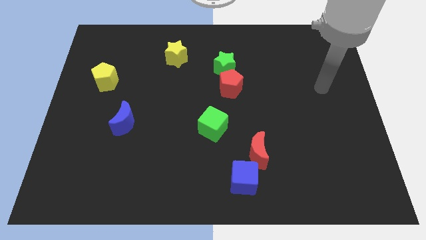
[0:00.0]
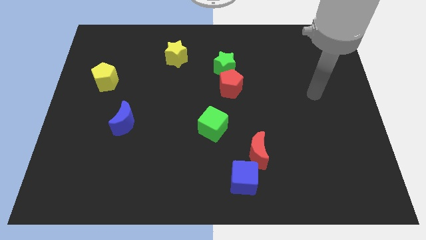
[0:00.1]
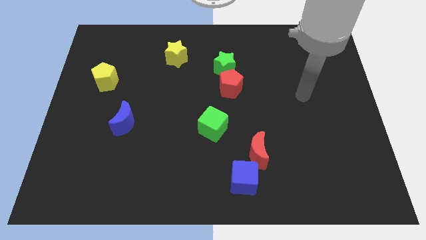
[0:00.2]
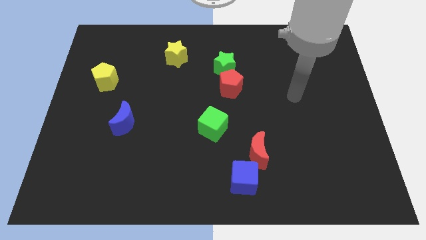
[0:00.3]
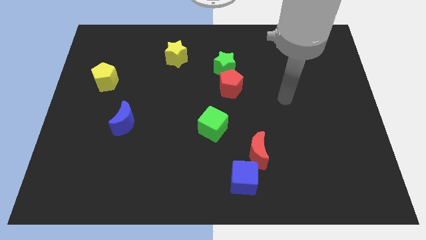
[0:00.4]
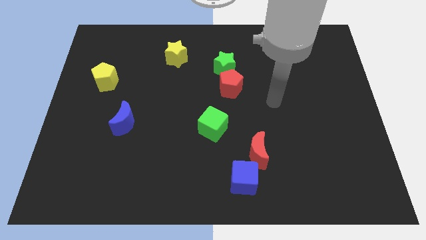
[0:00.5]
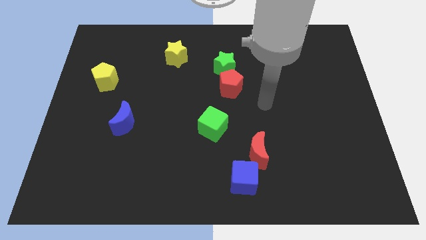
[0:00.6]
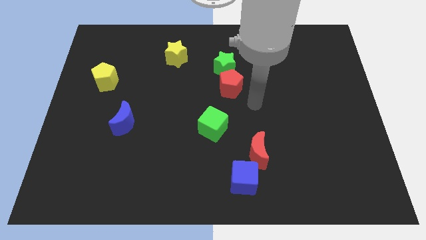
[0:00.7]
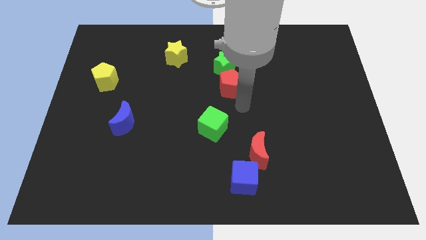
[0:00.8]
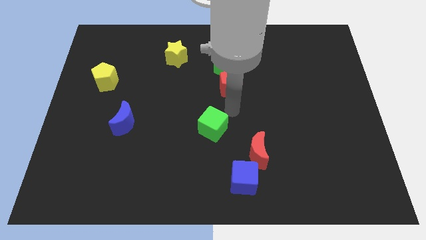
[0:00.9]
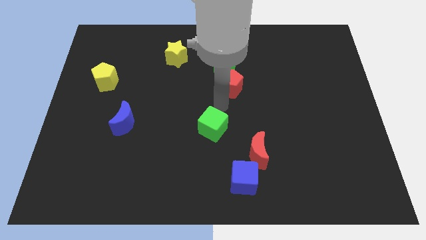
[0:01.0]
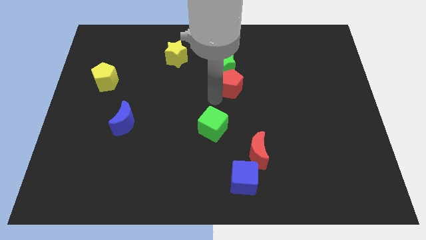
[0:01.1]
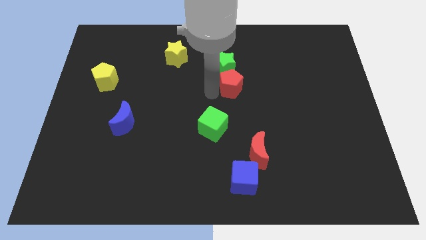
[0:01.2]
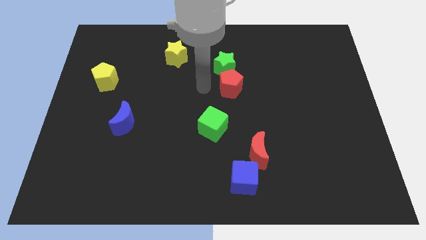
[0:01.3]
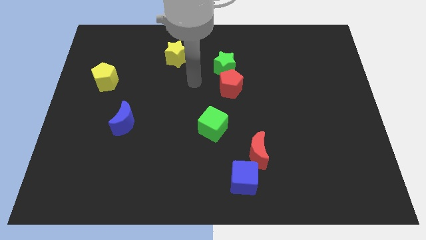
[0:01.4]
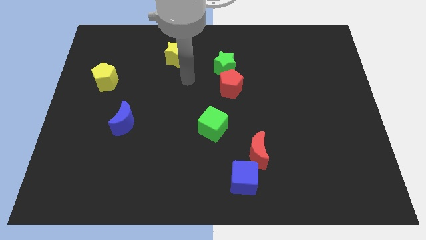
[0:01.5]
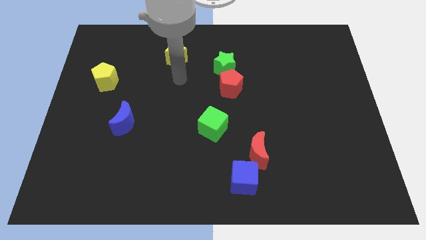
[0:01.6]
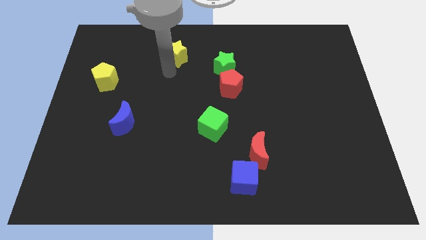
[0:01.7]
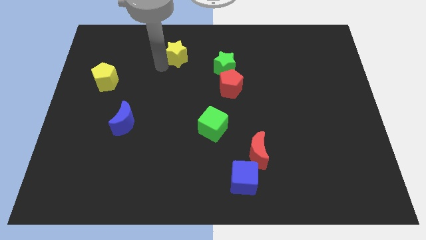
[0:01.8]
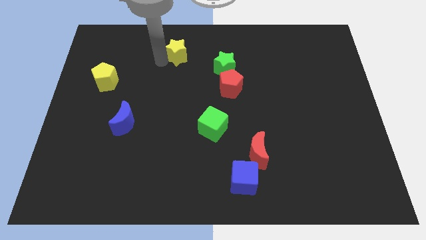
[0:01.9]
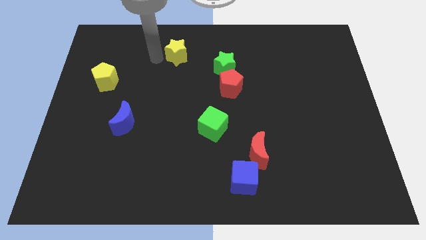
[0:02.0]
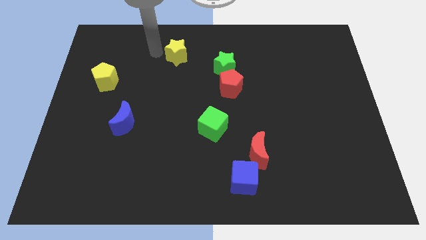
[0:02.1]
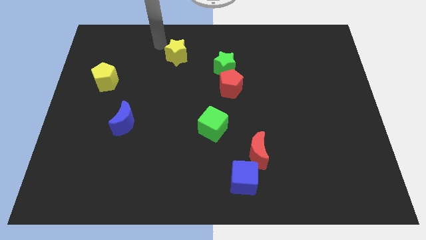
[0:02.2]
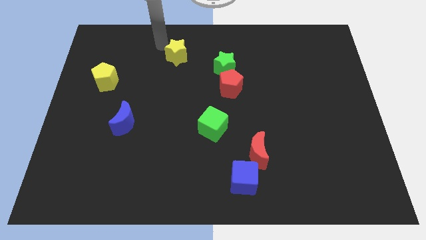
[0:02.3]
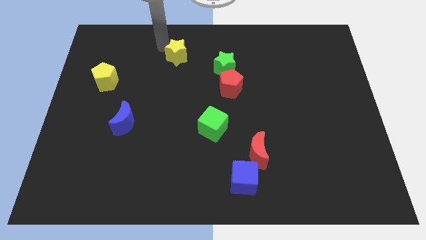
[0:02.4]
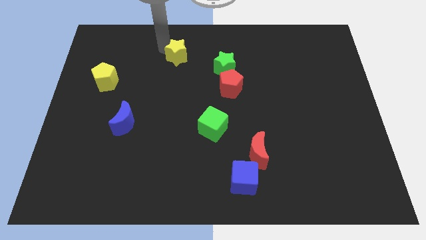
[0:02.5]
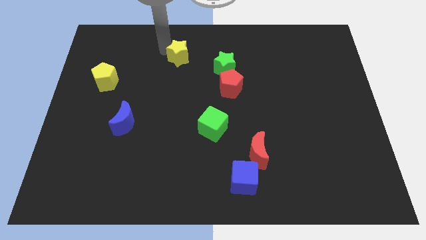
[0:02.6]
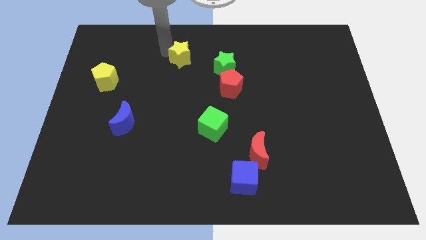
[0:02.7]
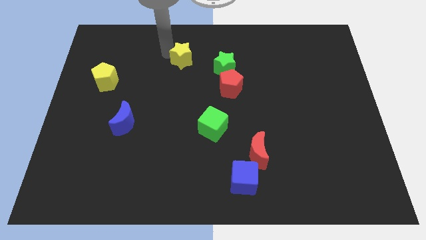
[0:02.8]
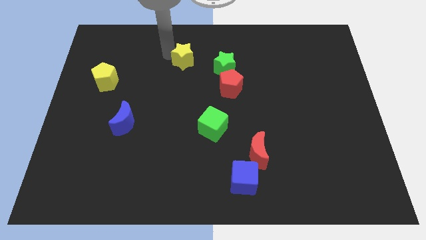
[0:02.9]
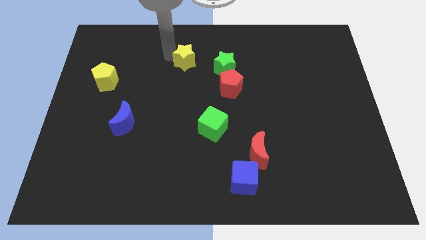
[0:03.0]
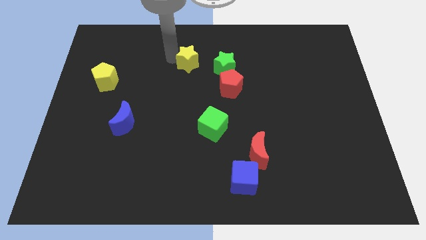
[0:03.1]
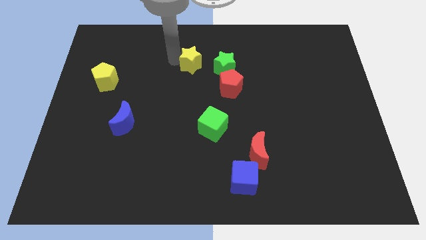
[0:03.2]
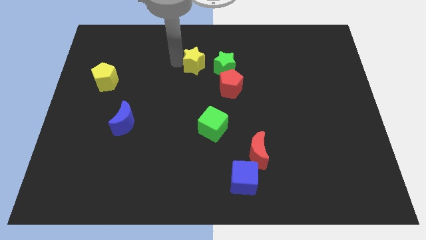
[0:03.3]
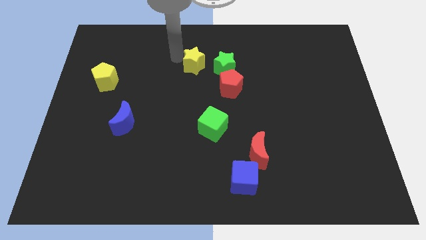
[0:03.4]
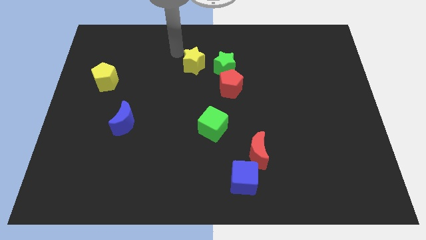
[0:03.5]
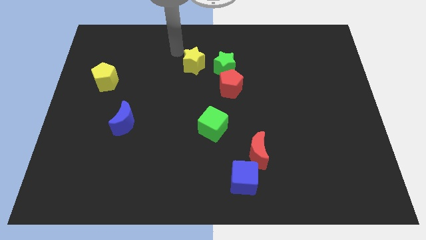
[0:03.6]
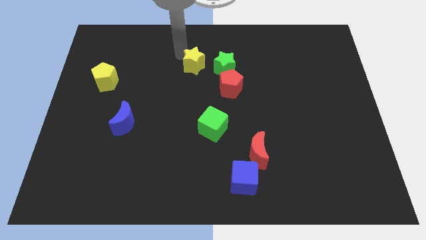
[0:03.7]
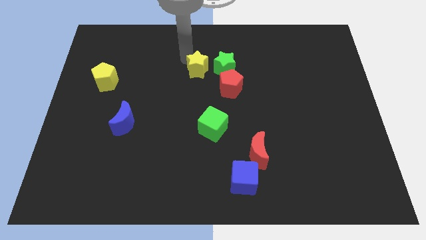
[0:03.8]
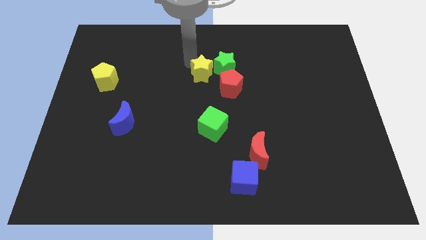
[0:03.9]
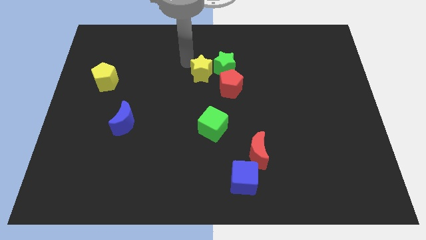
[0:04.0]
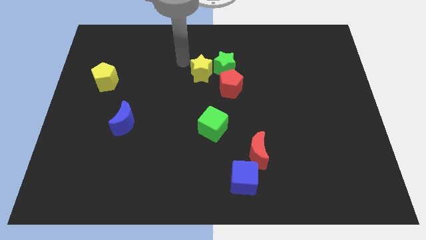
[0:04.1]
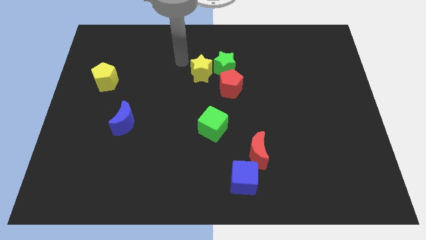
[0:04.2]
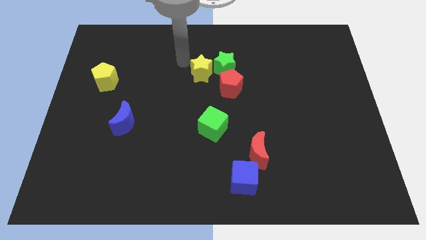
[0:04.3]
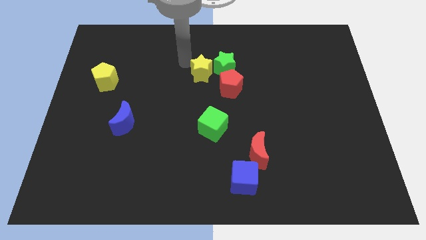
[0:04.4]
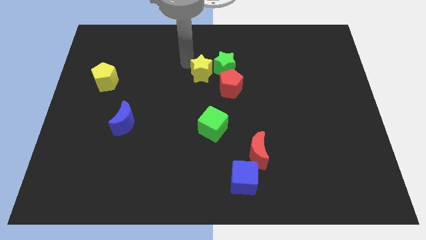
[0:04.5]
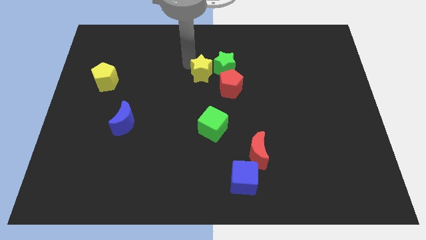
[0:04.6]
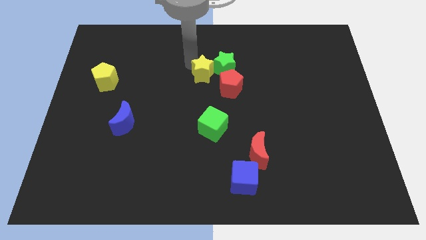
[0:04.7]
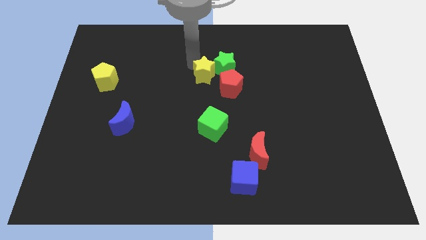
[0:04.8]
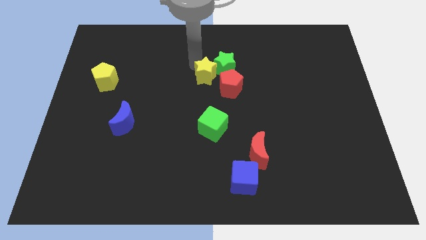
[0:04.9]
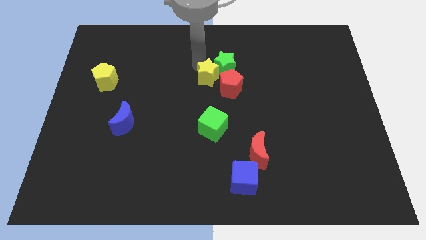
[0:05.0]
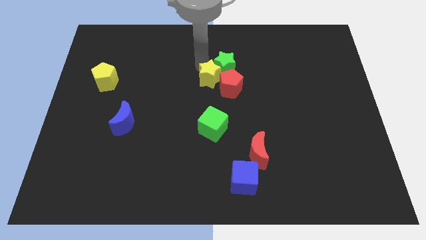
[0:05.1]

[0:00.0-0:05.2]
push the yellow star close to the red pentagon
